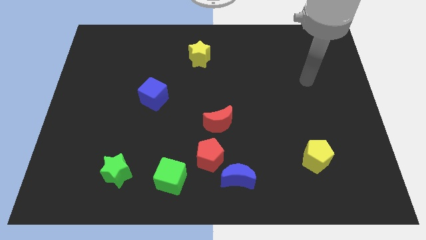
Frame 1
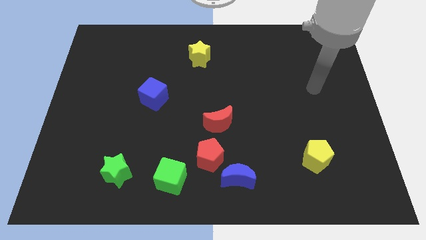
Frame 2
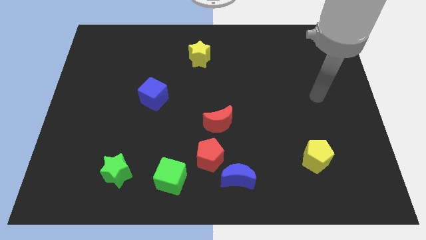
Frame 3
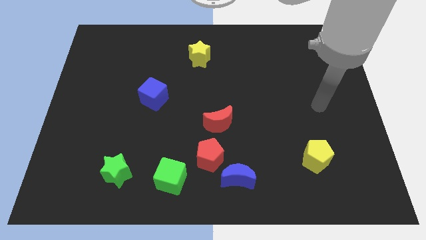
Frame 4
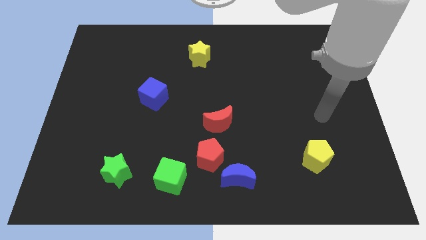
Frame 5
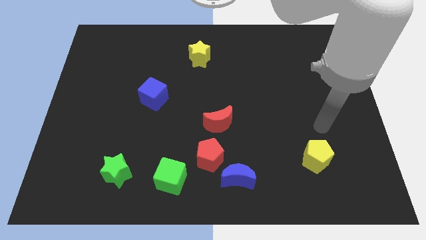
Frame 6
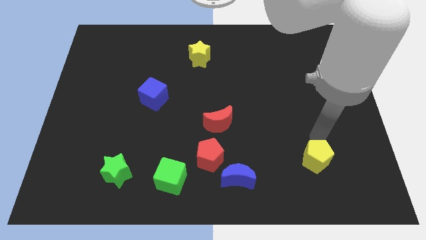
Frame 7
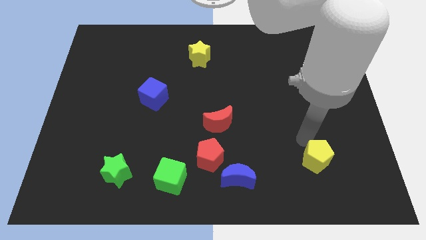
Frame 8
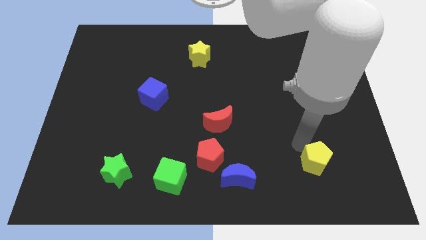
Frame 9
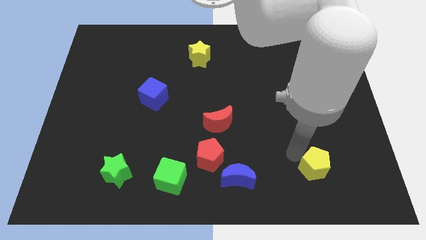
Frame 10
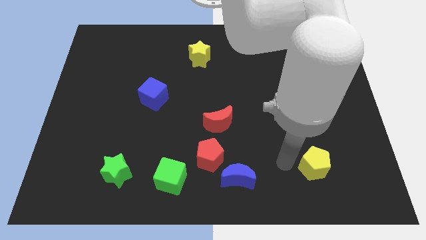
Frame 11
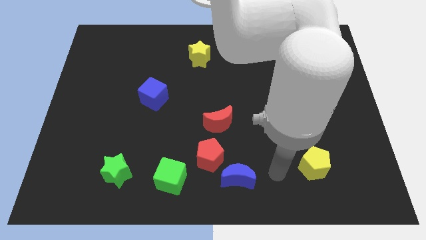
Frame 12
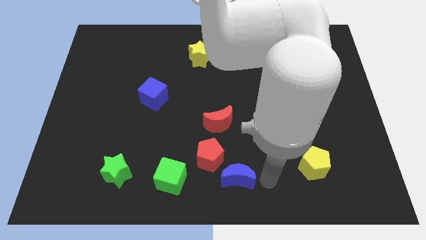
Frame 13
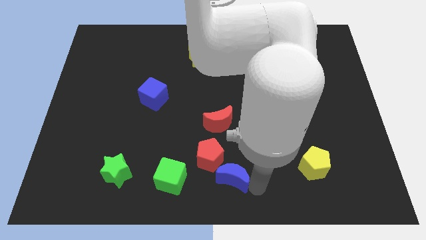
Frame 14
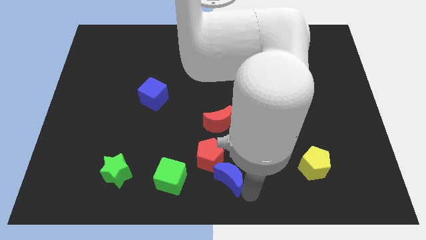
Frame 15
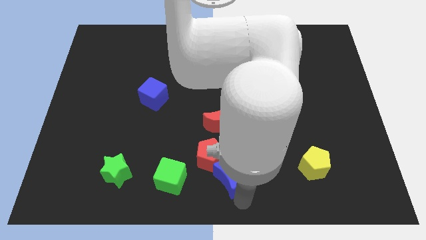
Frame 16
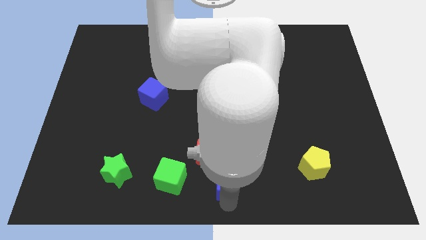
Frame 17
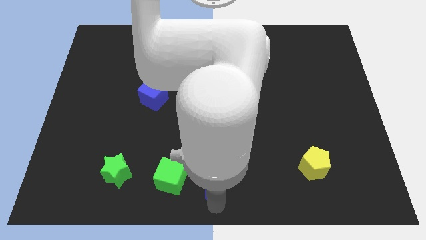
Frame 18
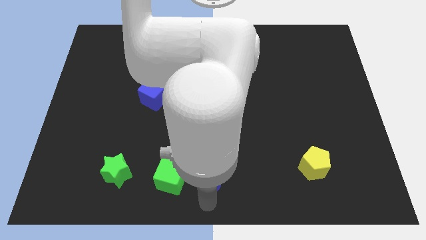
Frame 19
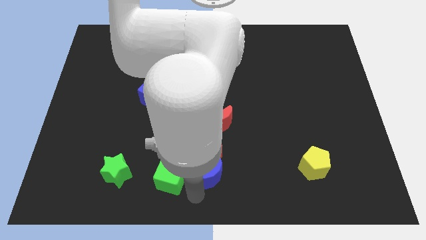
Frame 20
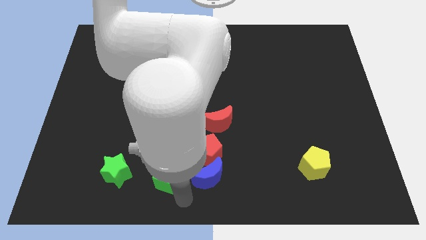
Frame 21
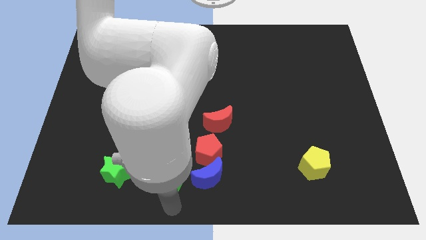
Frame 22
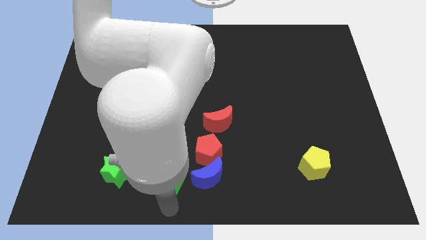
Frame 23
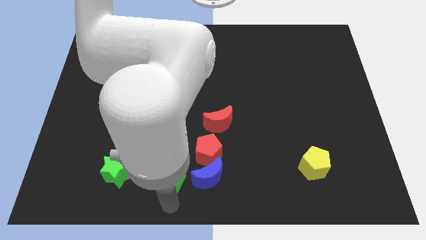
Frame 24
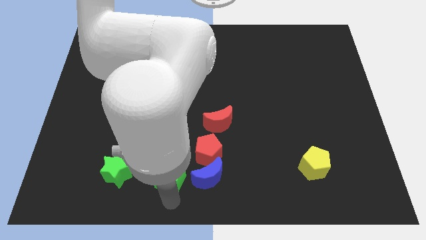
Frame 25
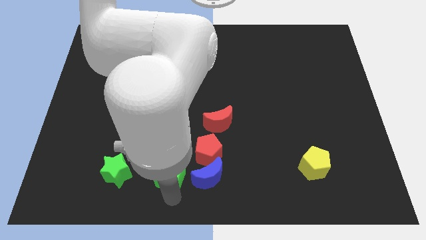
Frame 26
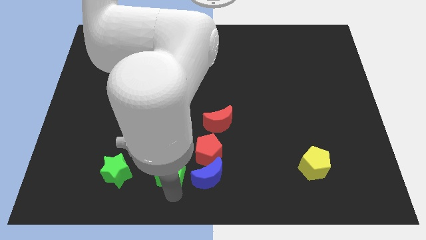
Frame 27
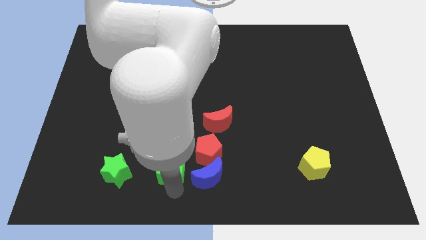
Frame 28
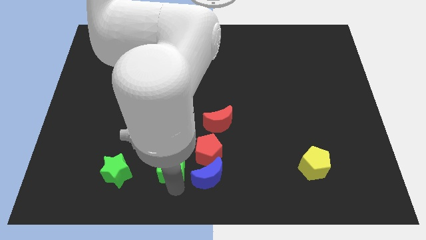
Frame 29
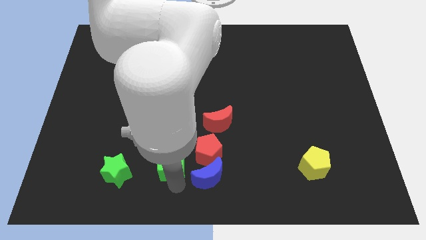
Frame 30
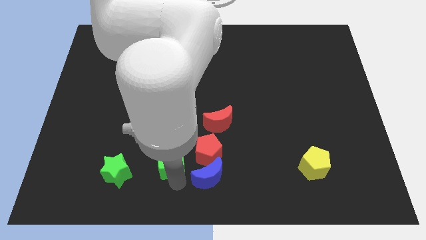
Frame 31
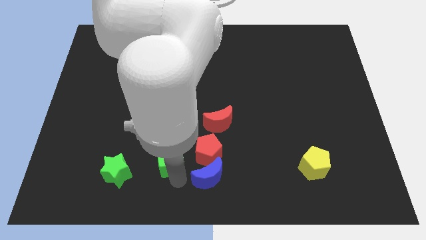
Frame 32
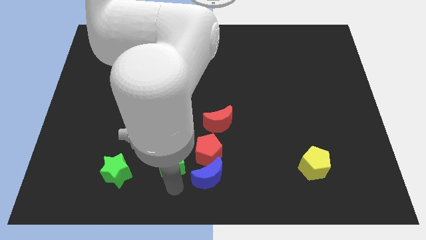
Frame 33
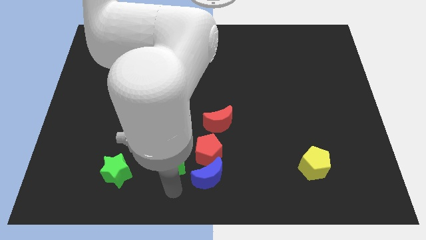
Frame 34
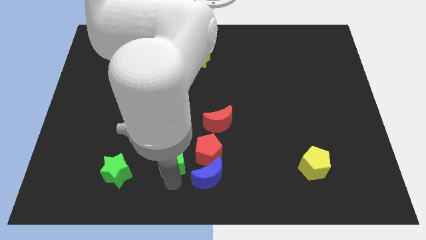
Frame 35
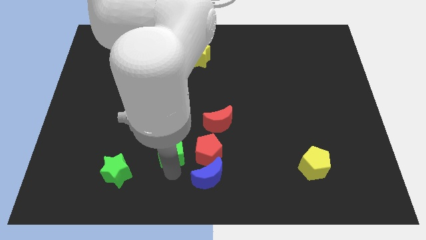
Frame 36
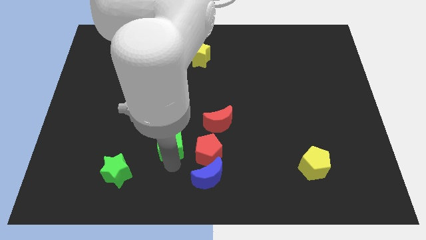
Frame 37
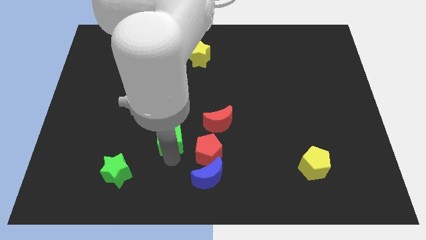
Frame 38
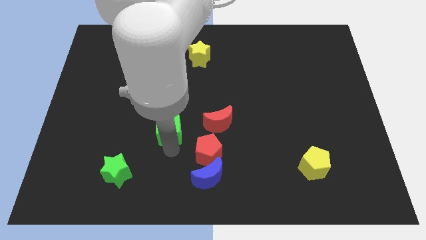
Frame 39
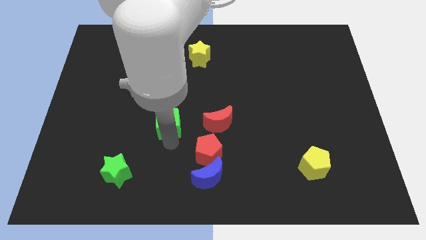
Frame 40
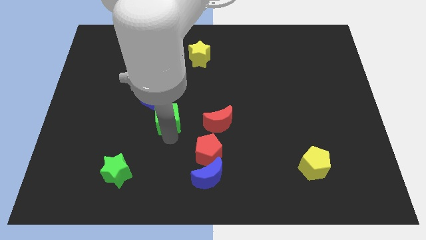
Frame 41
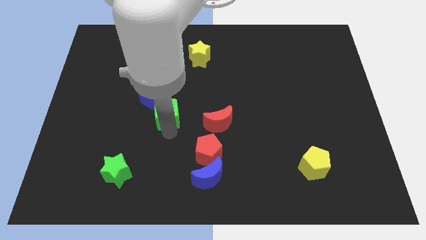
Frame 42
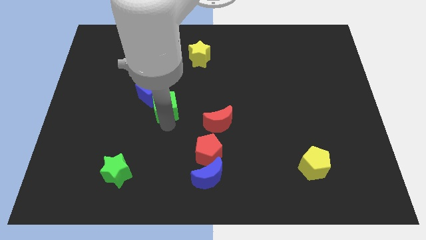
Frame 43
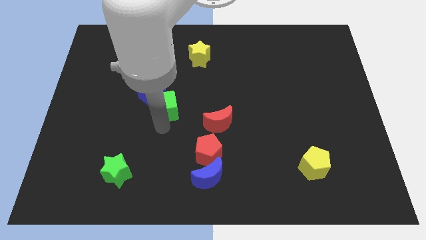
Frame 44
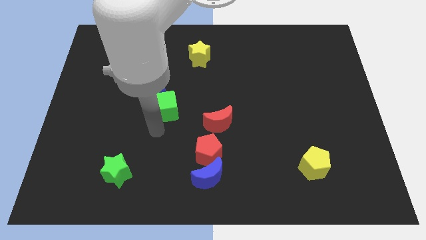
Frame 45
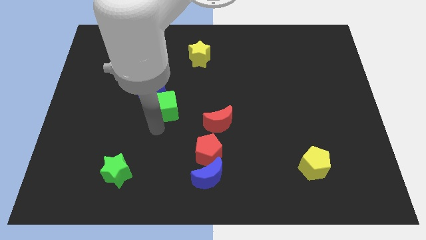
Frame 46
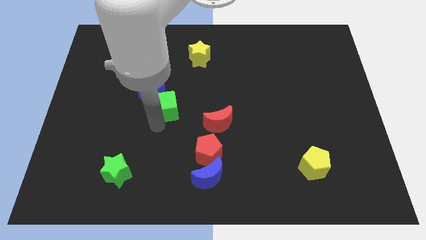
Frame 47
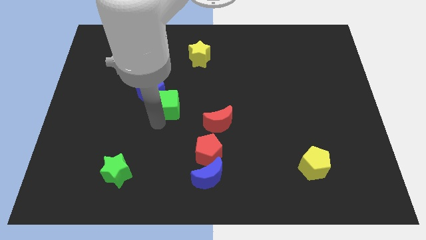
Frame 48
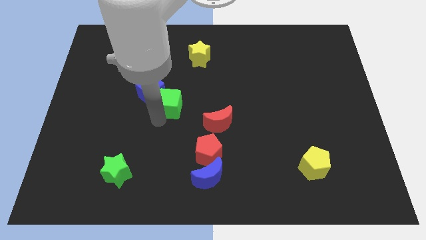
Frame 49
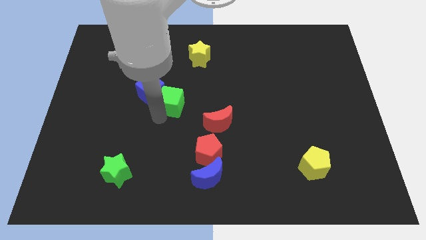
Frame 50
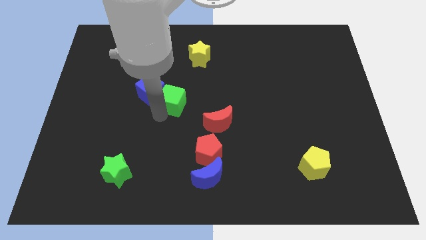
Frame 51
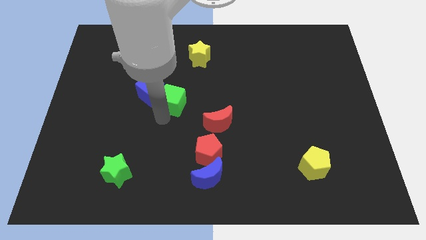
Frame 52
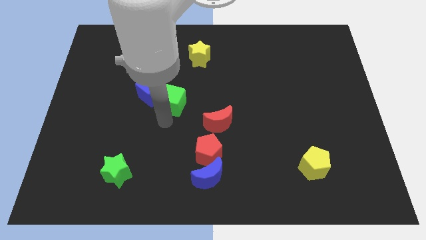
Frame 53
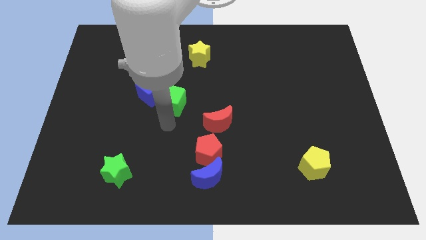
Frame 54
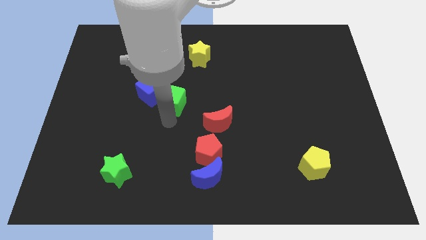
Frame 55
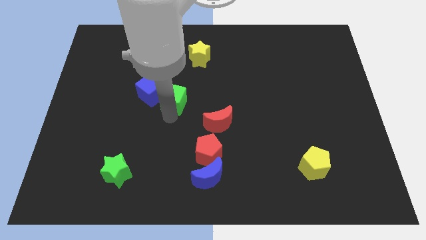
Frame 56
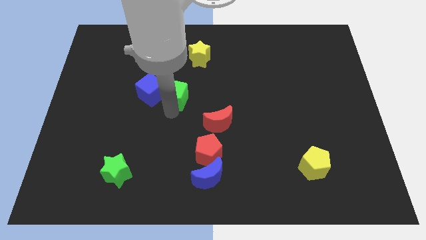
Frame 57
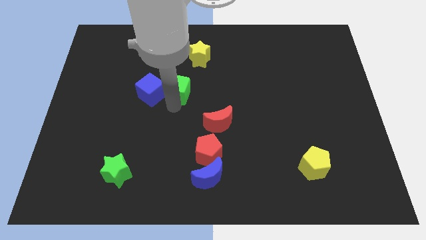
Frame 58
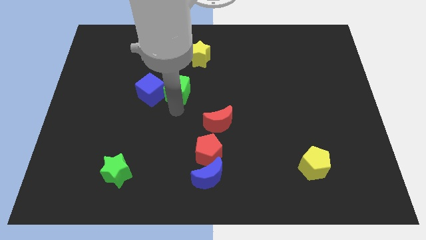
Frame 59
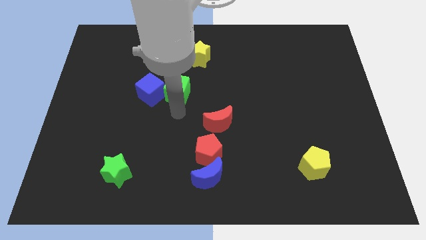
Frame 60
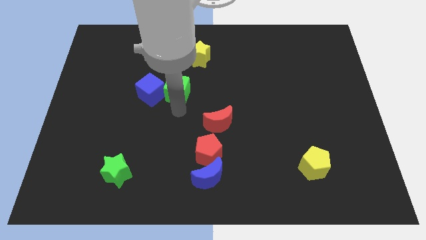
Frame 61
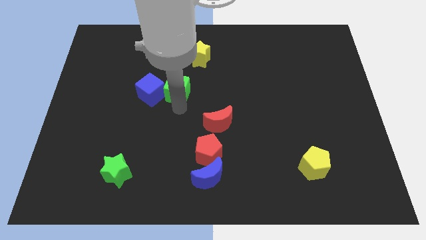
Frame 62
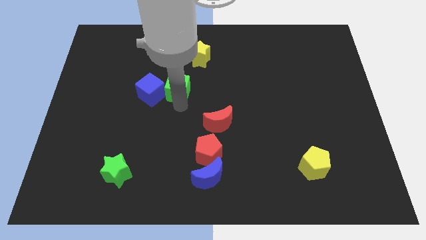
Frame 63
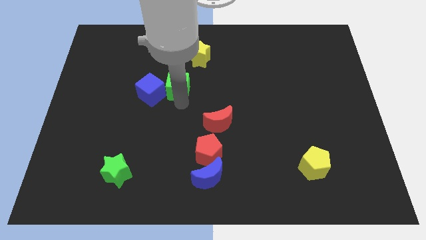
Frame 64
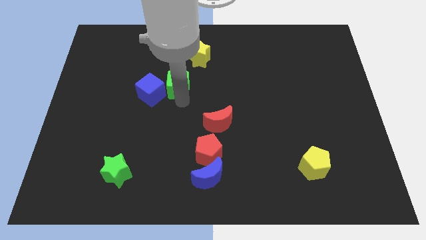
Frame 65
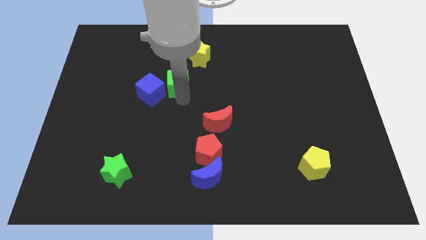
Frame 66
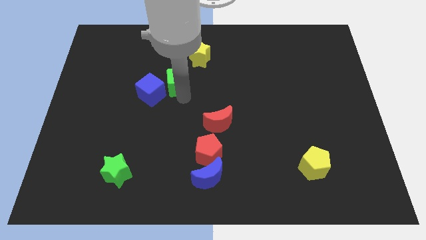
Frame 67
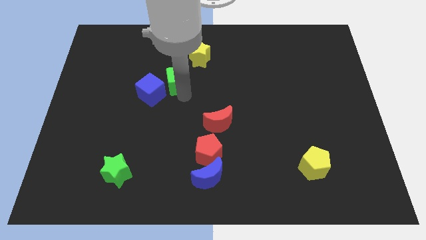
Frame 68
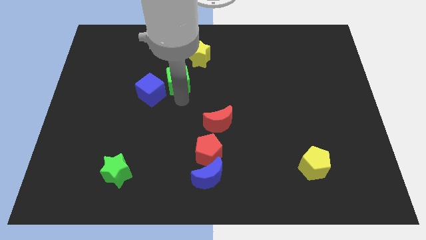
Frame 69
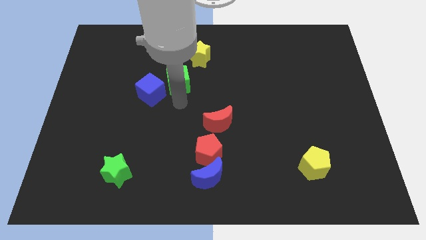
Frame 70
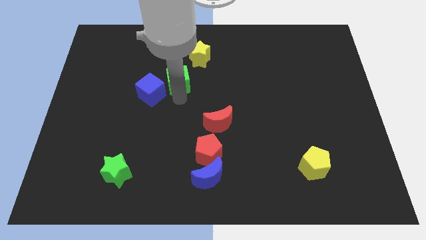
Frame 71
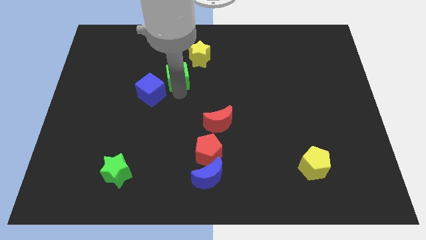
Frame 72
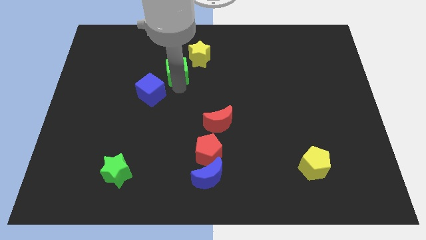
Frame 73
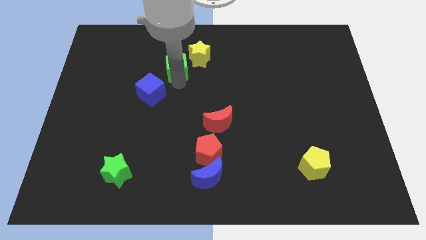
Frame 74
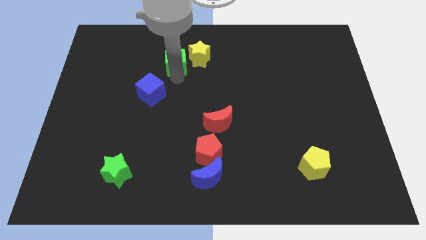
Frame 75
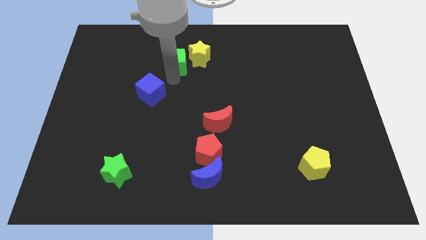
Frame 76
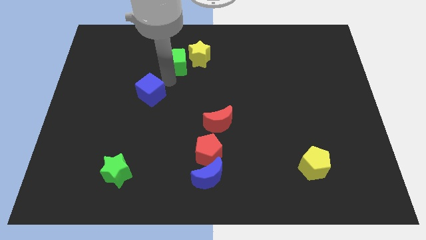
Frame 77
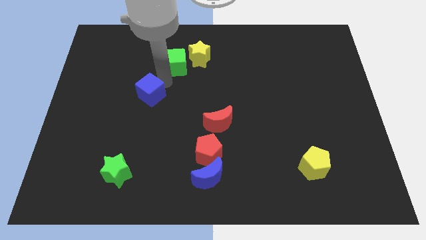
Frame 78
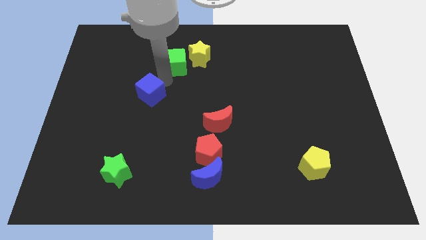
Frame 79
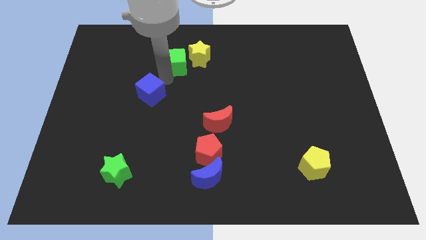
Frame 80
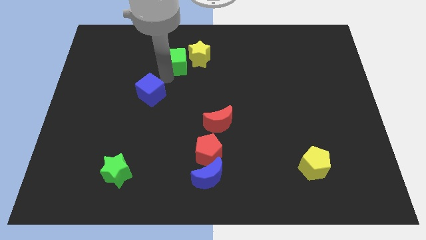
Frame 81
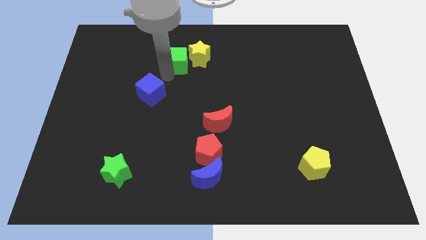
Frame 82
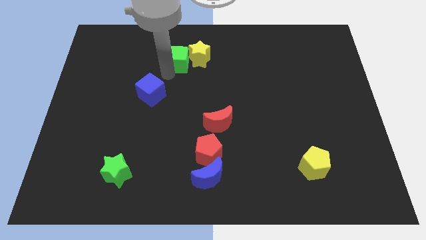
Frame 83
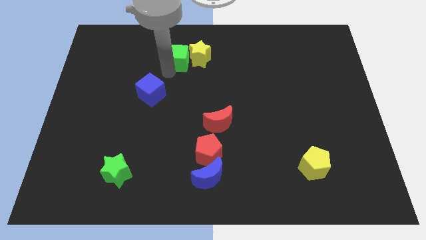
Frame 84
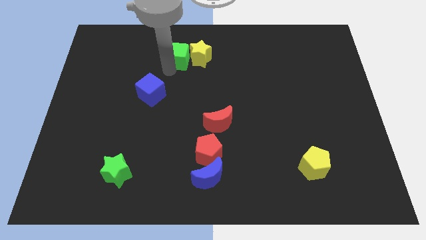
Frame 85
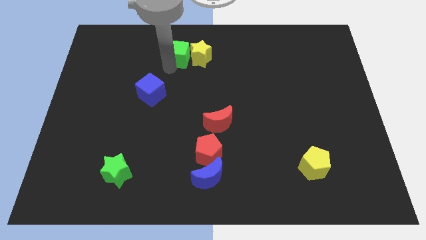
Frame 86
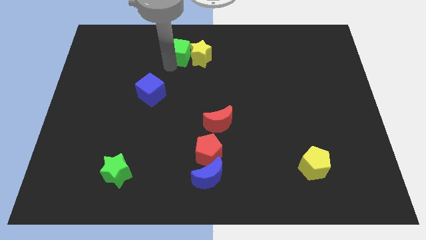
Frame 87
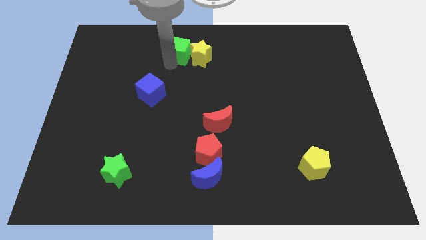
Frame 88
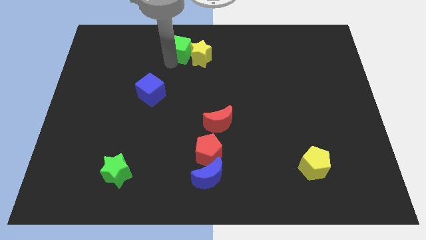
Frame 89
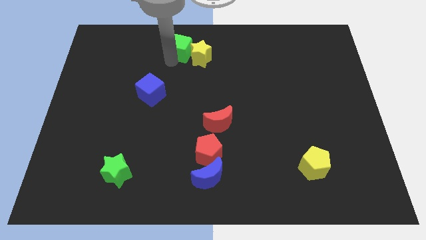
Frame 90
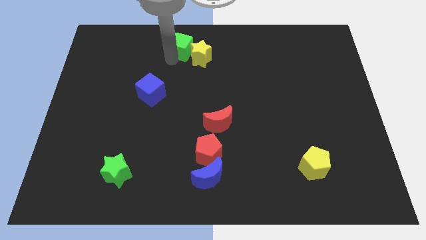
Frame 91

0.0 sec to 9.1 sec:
slide the green cube to the top
